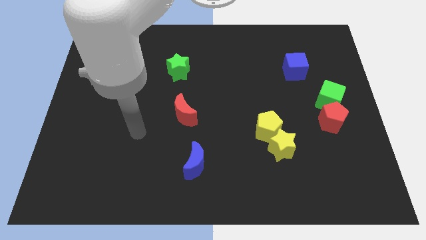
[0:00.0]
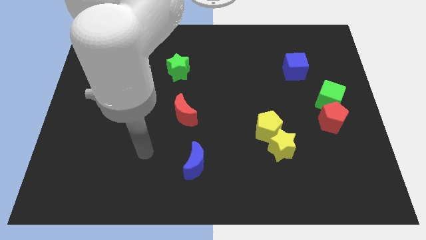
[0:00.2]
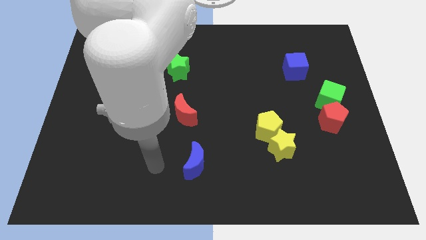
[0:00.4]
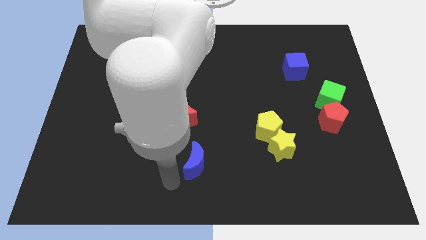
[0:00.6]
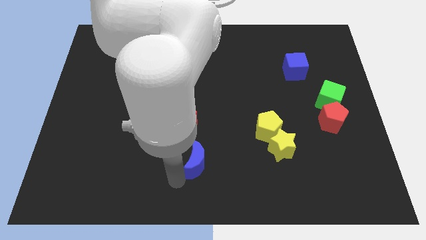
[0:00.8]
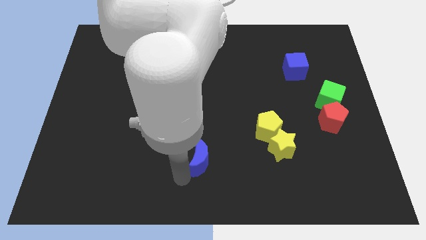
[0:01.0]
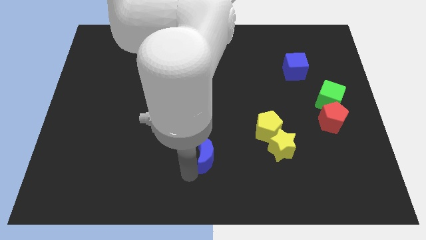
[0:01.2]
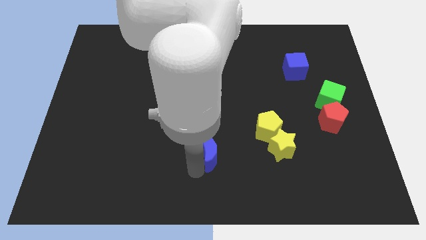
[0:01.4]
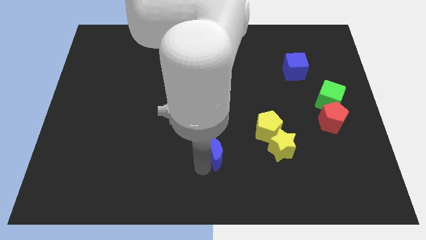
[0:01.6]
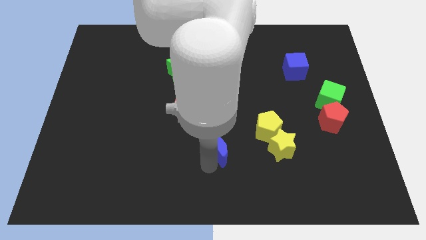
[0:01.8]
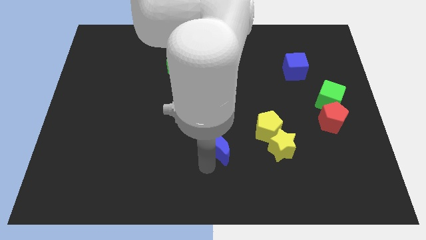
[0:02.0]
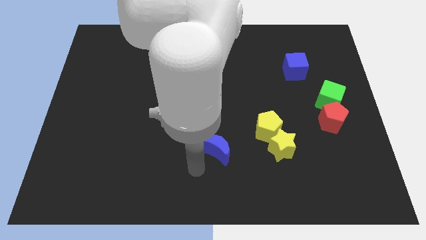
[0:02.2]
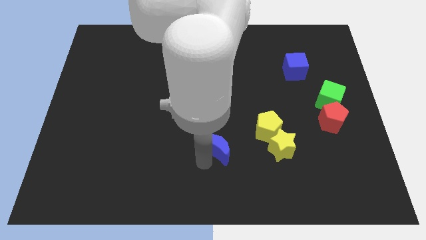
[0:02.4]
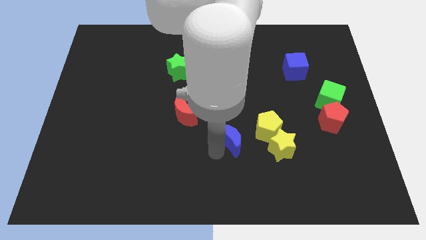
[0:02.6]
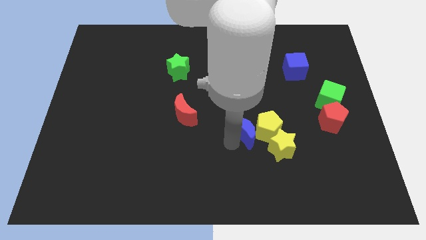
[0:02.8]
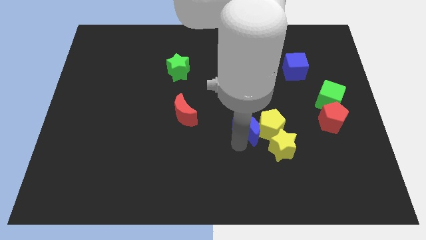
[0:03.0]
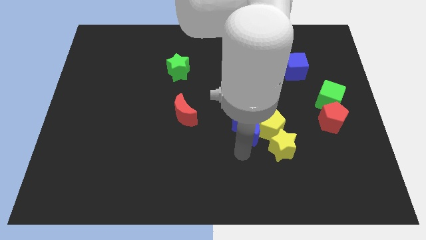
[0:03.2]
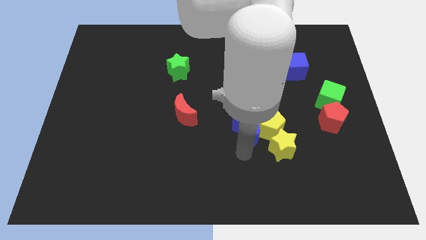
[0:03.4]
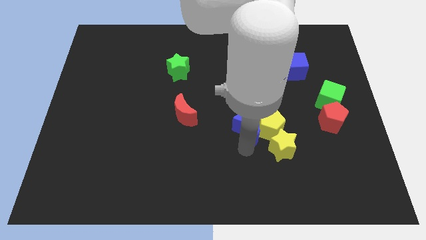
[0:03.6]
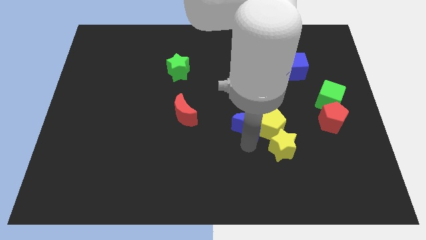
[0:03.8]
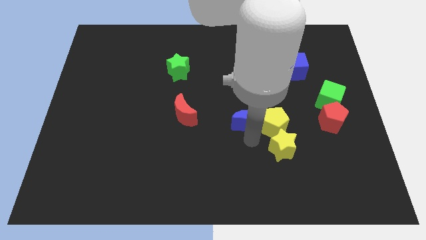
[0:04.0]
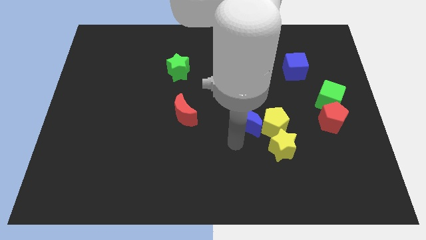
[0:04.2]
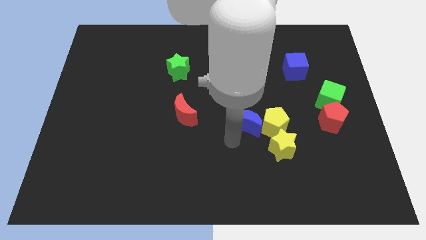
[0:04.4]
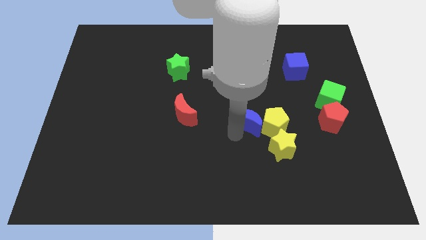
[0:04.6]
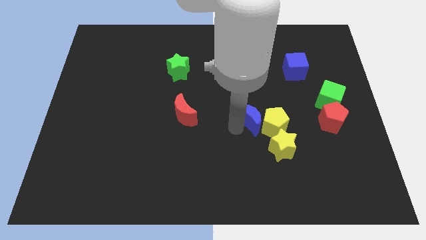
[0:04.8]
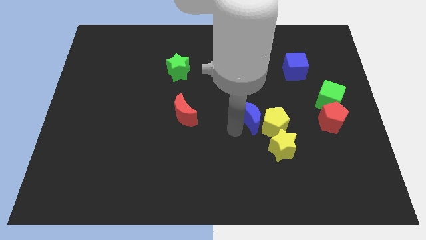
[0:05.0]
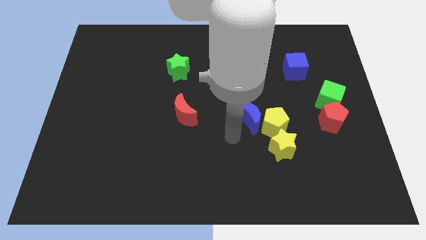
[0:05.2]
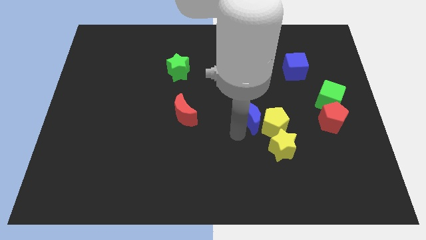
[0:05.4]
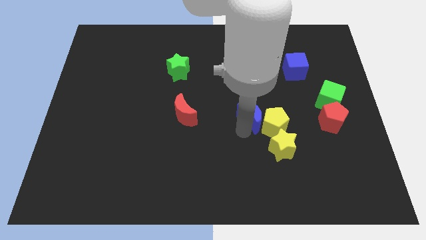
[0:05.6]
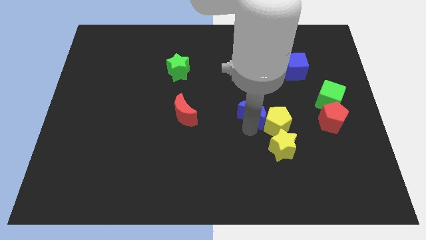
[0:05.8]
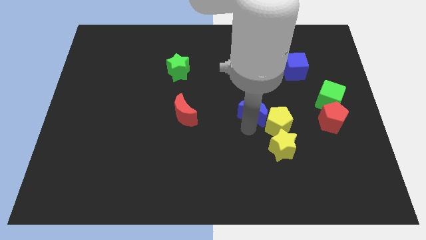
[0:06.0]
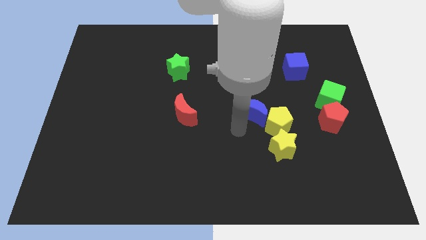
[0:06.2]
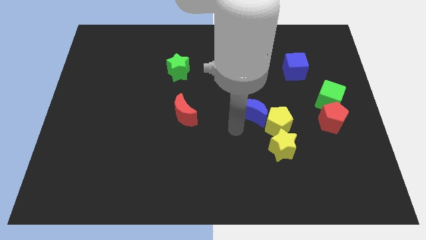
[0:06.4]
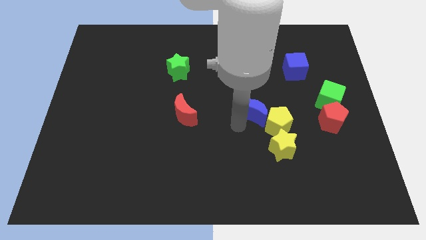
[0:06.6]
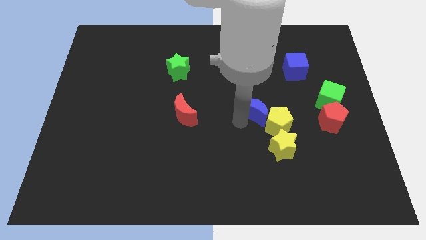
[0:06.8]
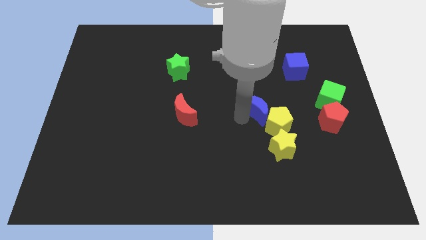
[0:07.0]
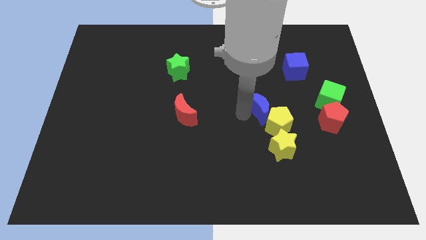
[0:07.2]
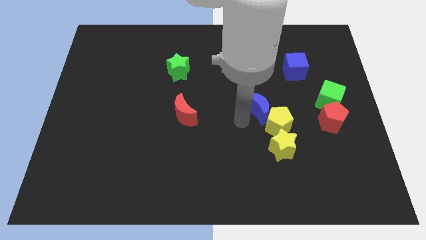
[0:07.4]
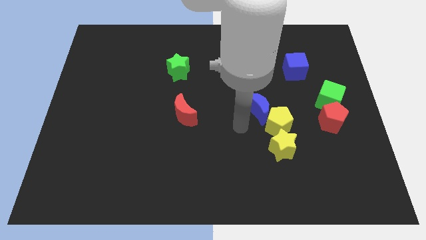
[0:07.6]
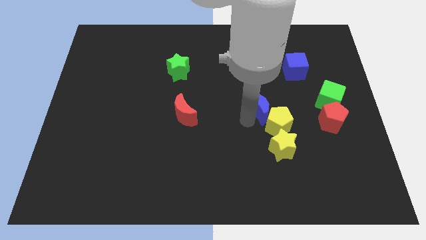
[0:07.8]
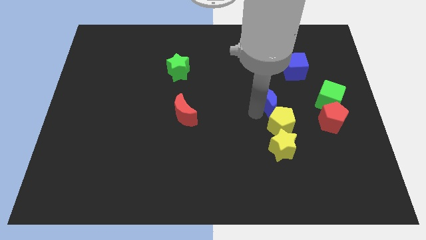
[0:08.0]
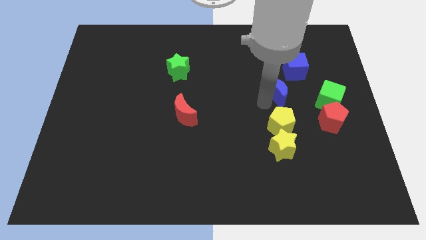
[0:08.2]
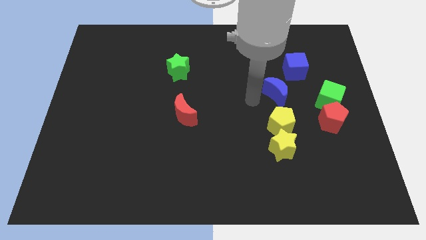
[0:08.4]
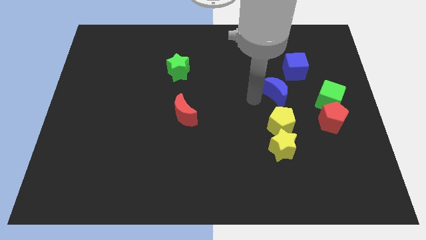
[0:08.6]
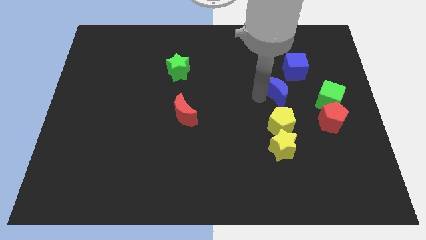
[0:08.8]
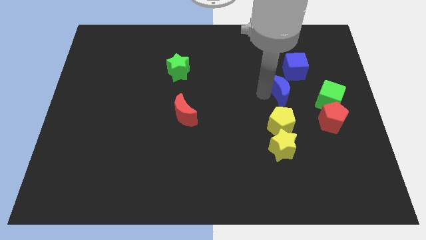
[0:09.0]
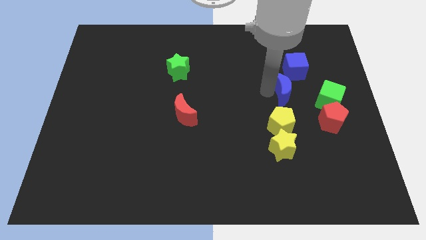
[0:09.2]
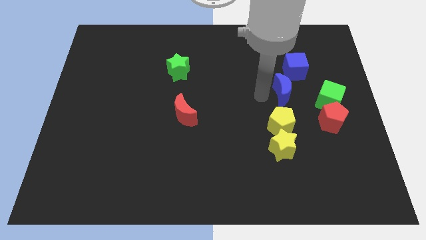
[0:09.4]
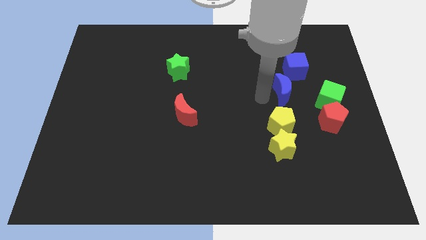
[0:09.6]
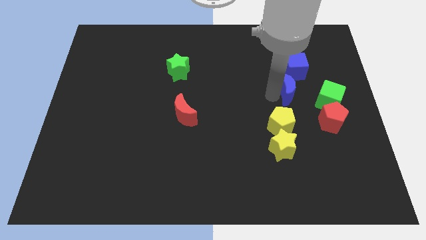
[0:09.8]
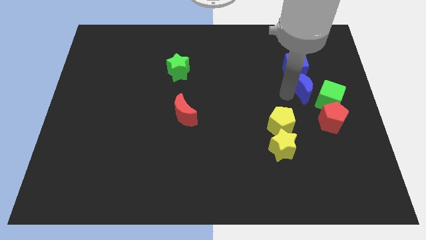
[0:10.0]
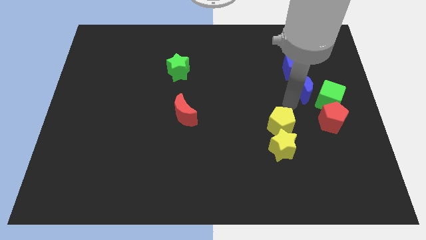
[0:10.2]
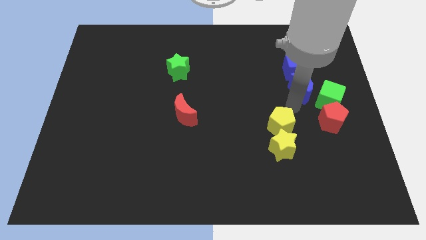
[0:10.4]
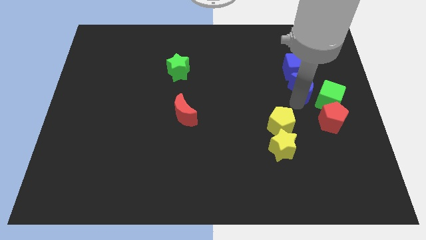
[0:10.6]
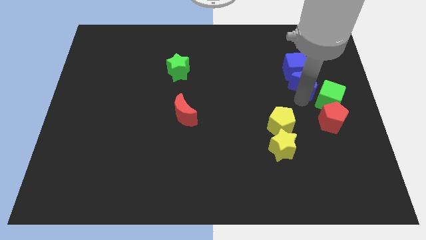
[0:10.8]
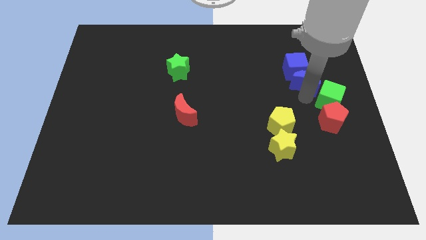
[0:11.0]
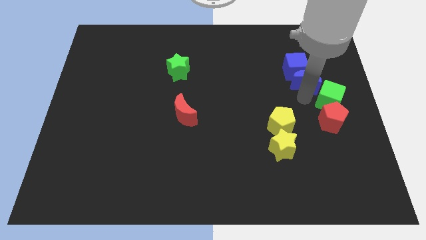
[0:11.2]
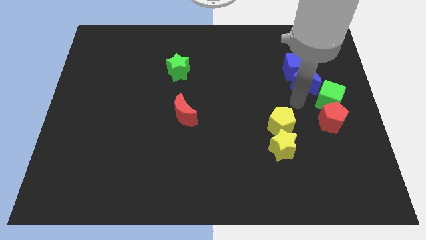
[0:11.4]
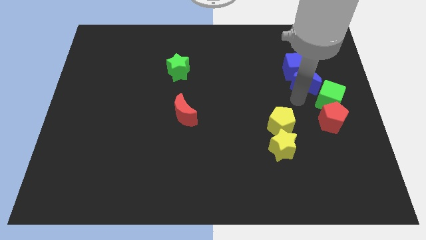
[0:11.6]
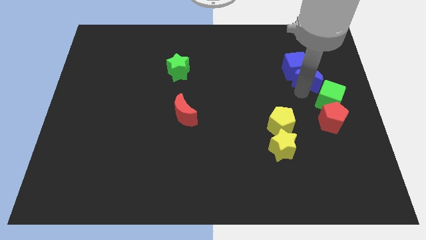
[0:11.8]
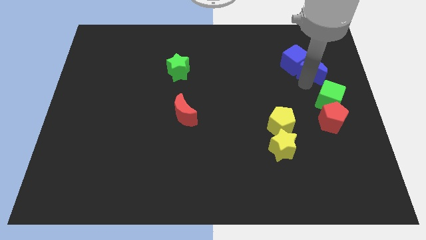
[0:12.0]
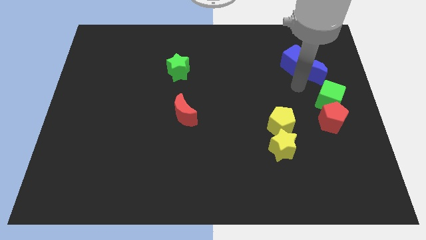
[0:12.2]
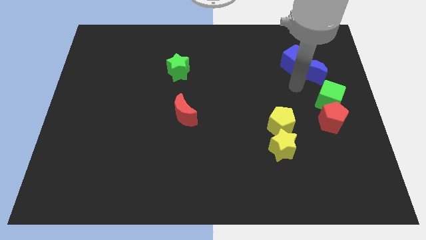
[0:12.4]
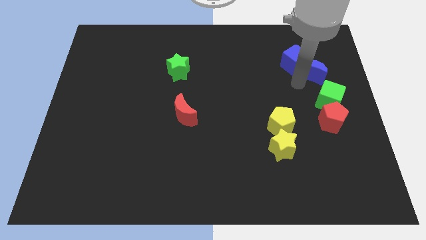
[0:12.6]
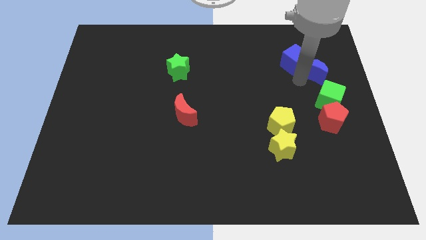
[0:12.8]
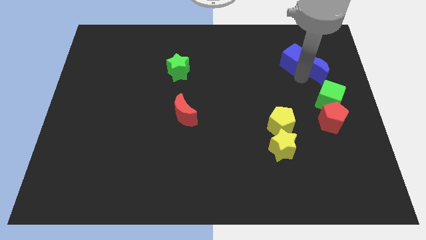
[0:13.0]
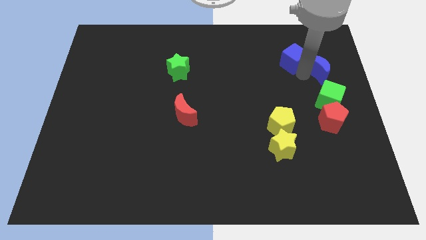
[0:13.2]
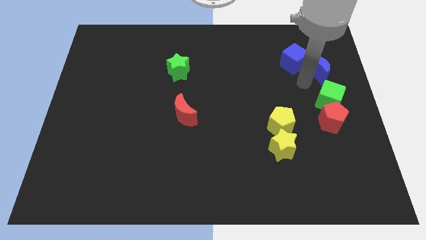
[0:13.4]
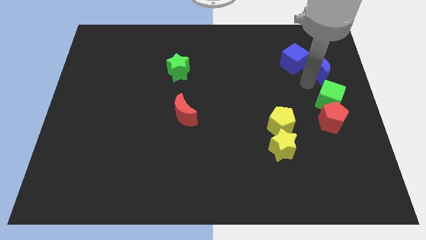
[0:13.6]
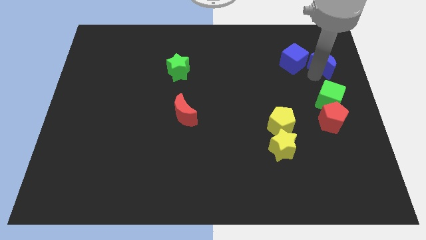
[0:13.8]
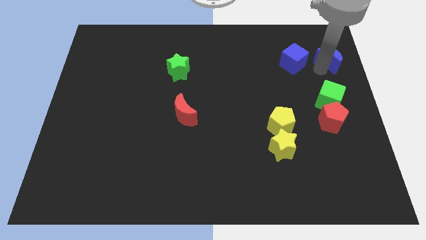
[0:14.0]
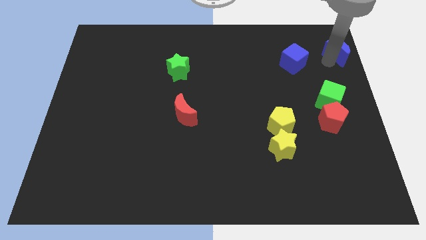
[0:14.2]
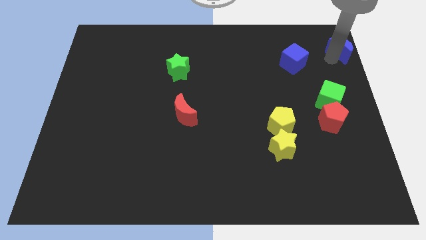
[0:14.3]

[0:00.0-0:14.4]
move the blue moon to the top right
